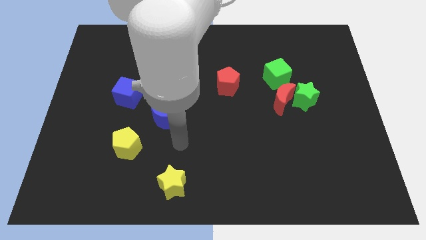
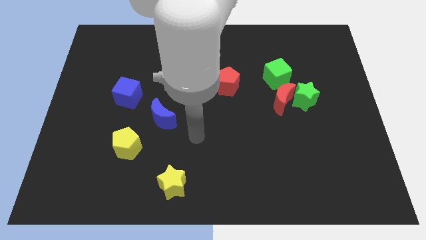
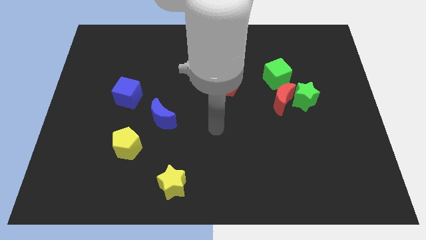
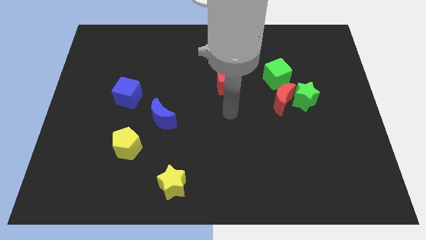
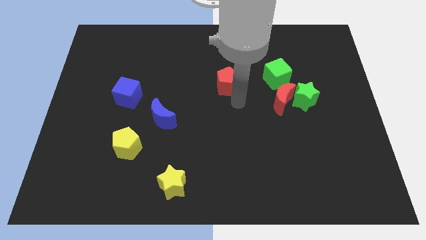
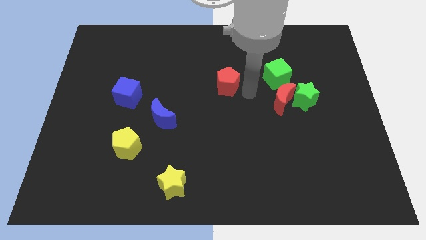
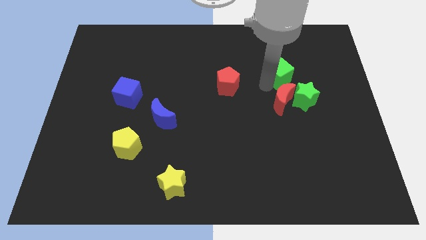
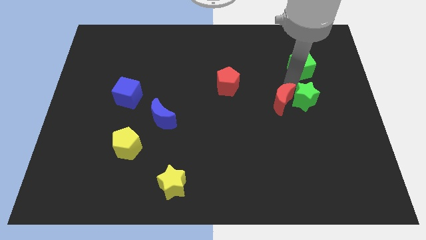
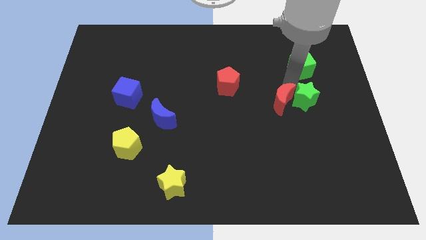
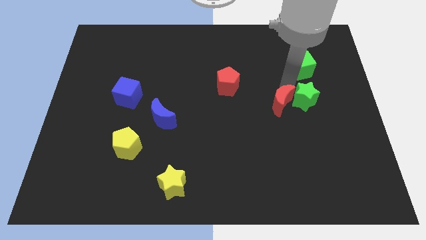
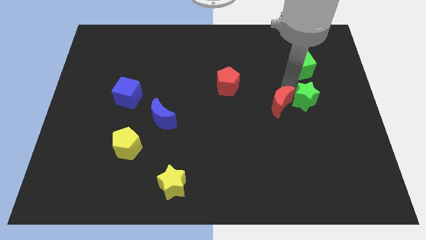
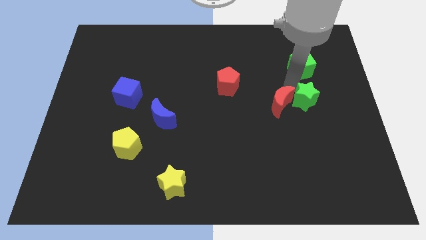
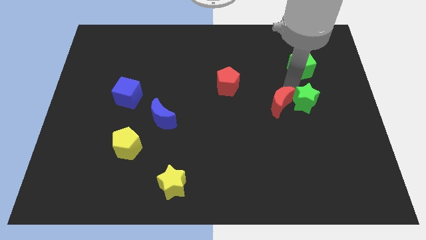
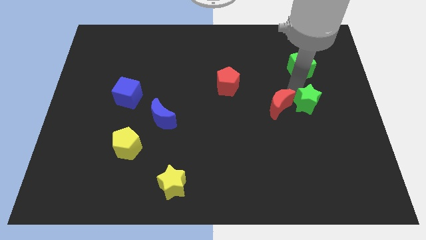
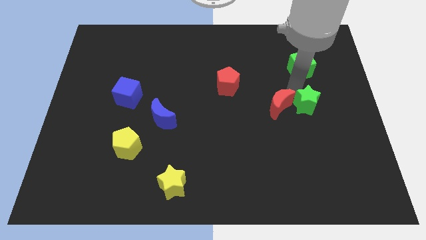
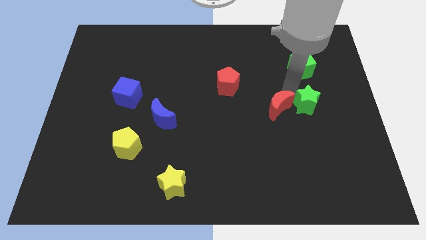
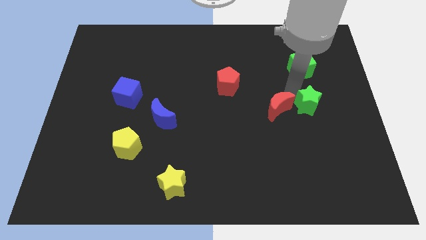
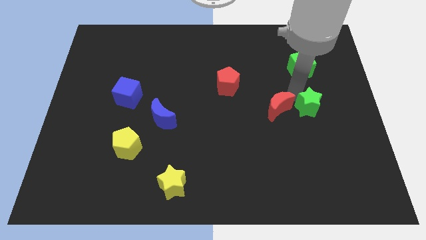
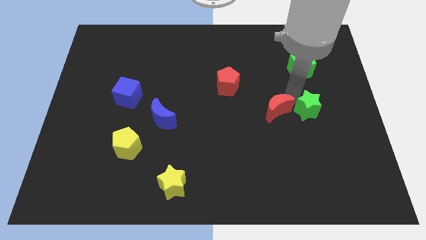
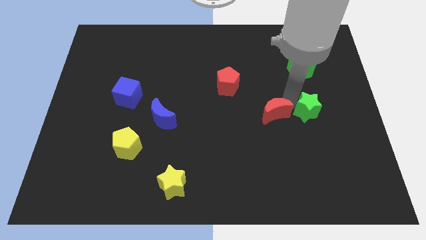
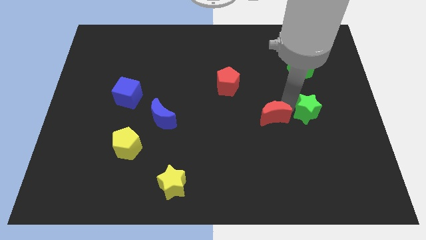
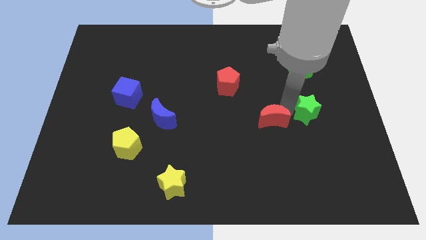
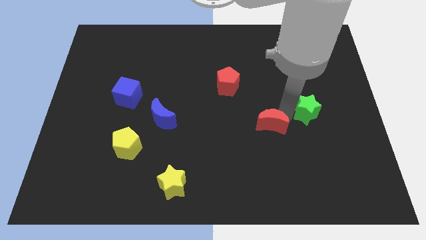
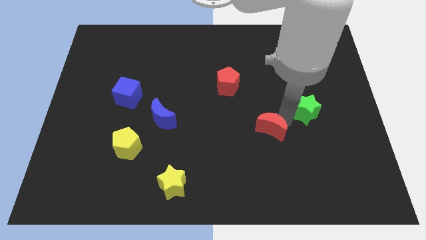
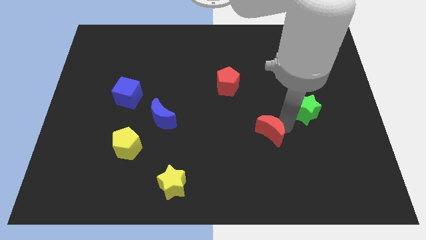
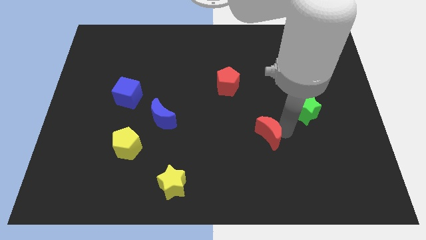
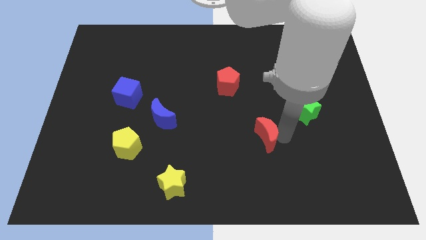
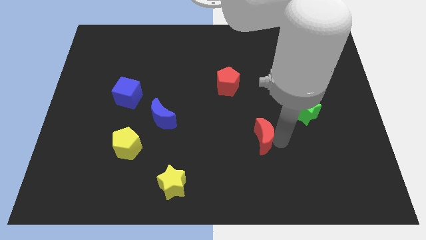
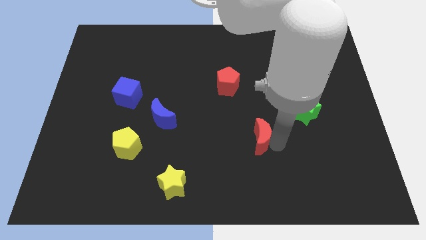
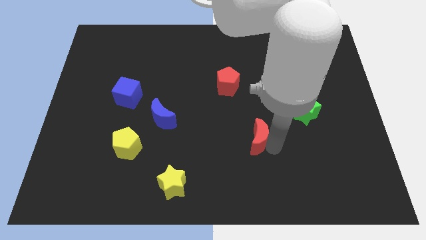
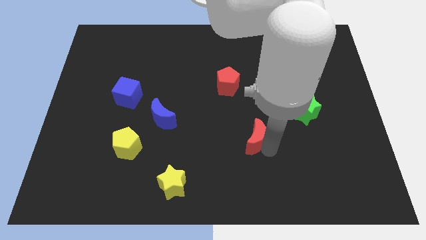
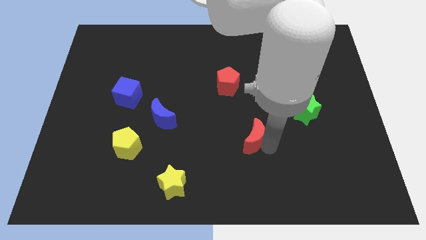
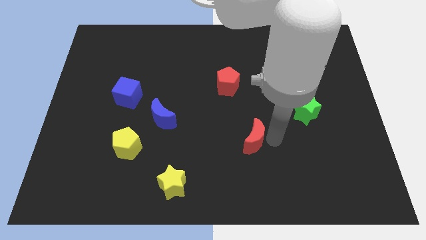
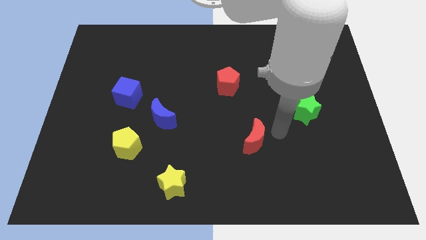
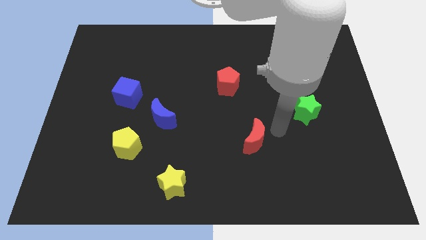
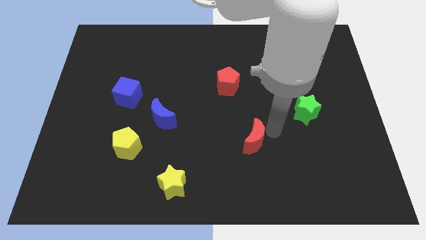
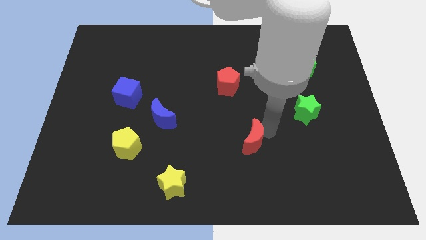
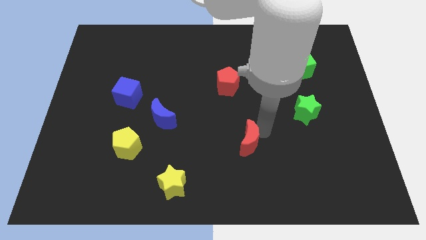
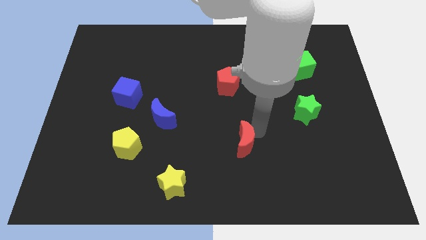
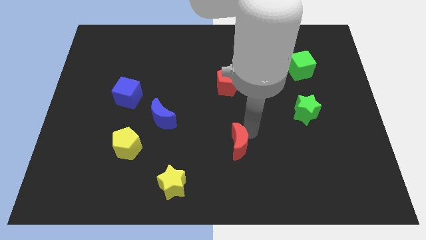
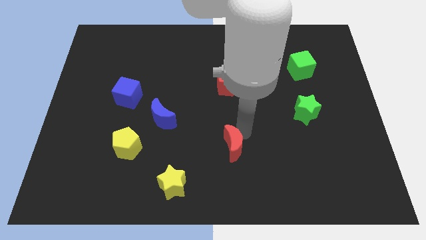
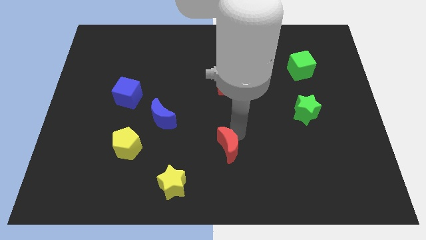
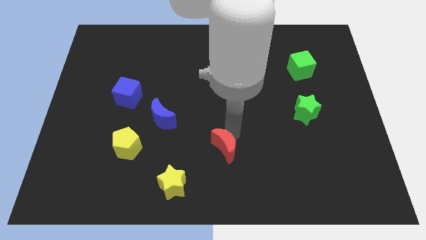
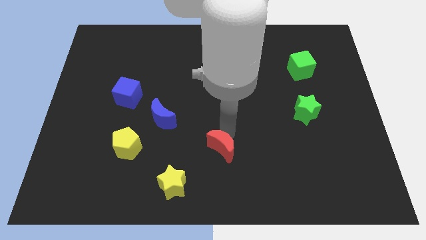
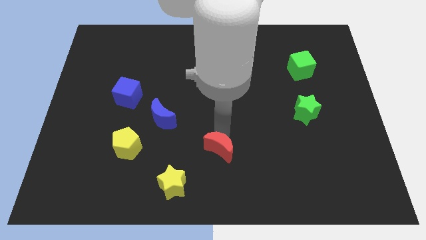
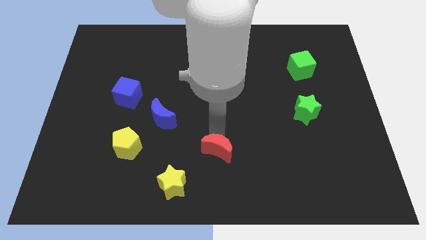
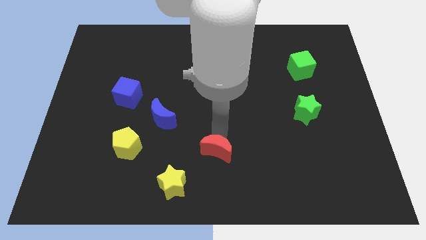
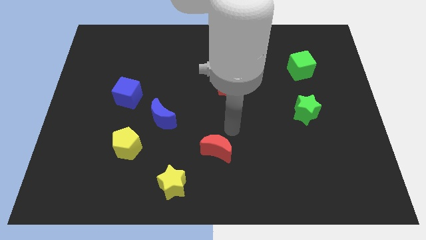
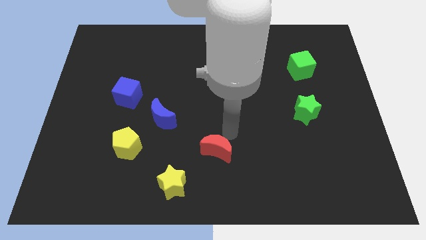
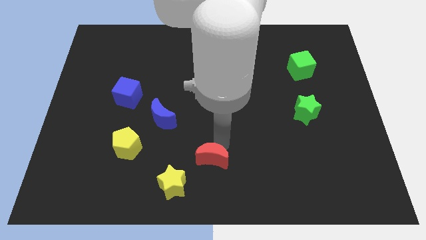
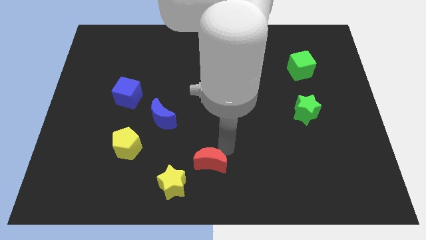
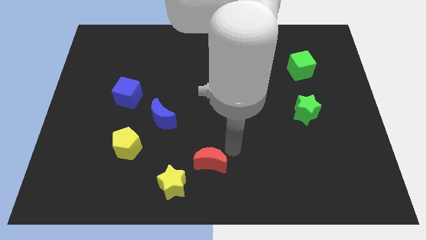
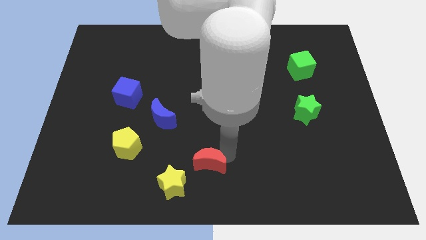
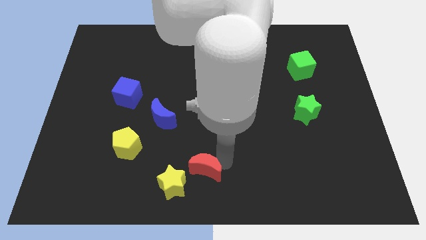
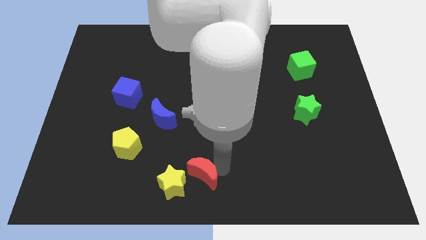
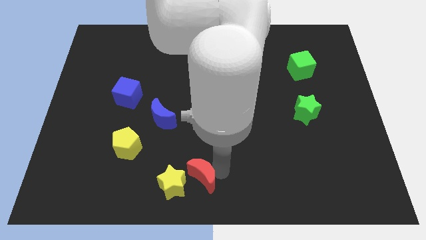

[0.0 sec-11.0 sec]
put the red moon next to the yellow star

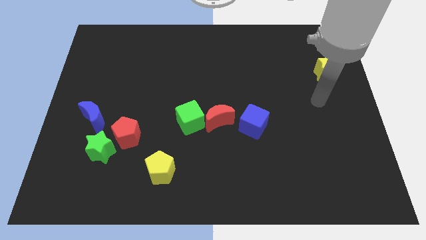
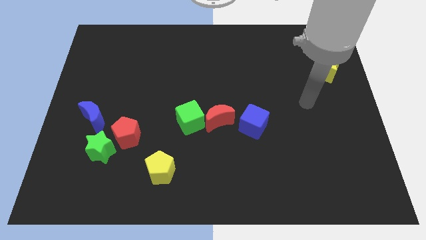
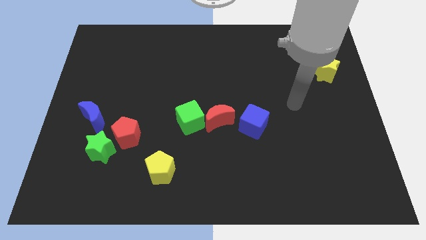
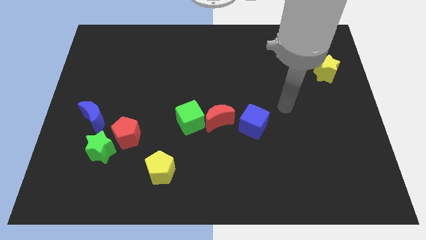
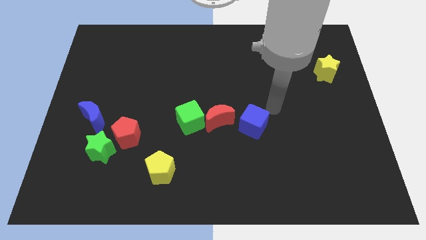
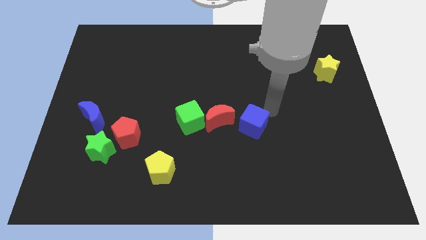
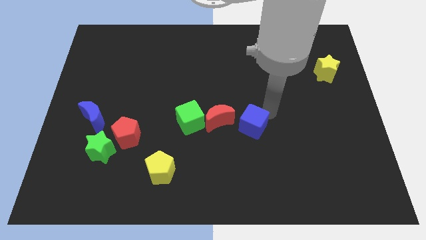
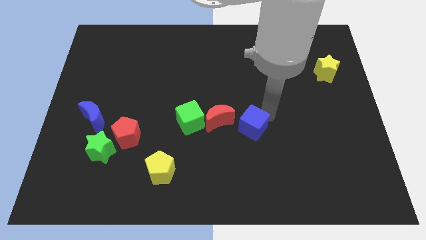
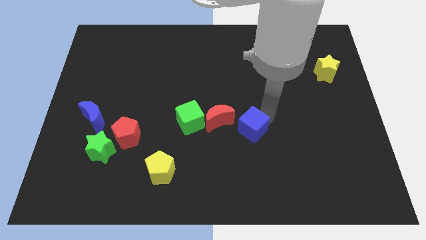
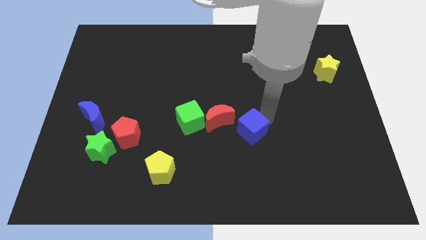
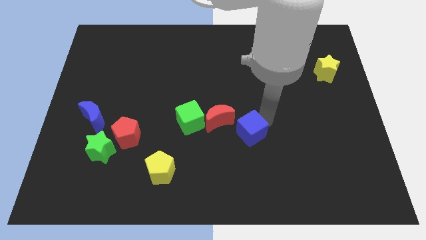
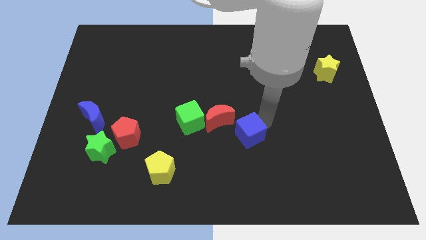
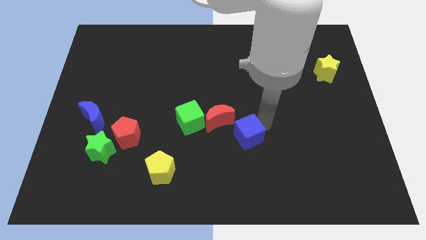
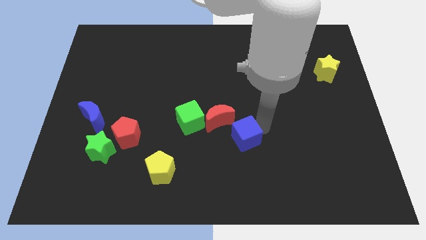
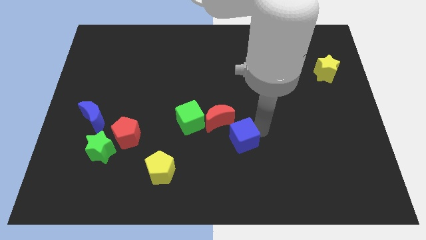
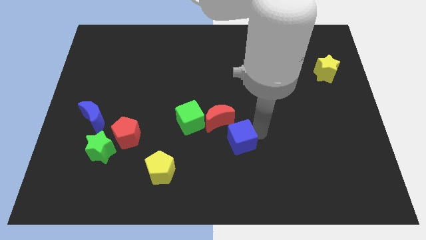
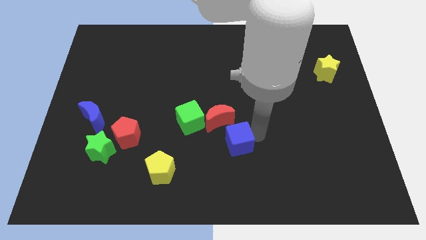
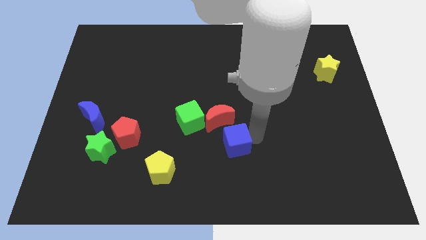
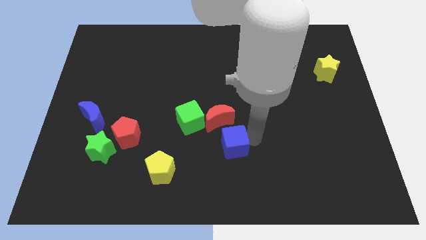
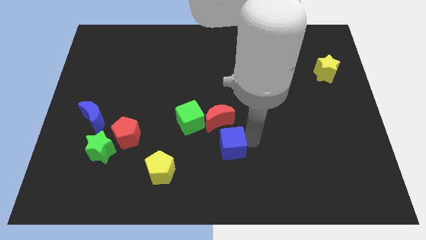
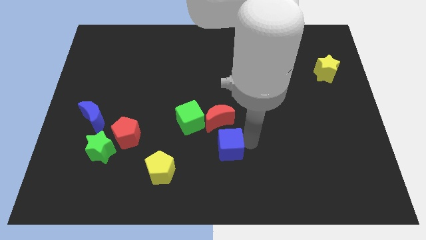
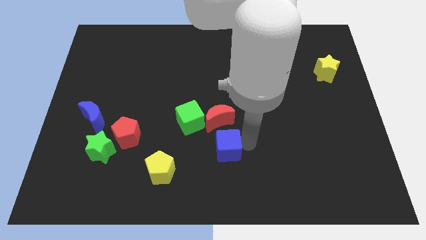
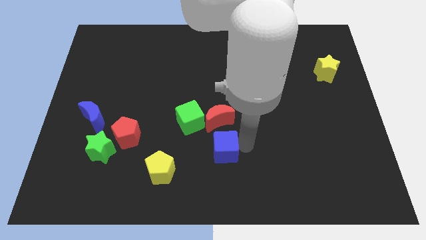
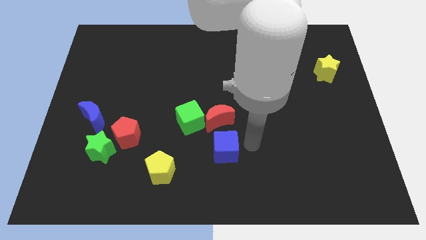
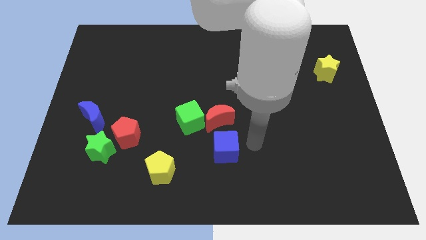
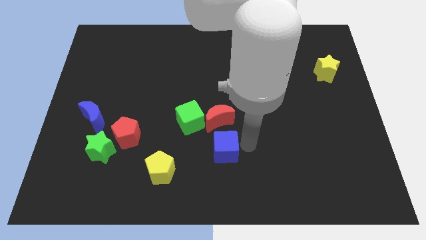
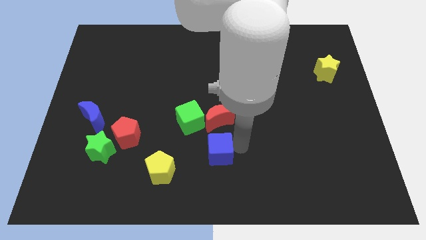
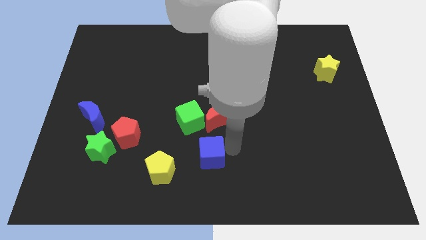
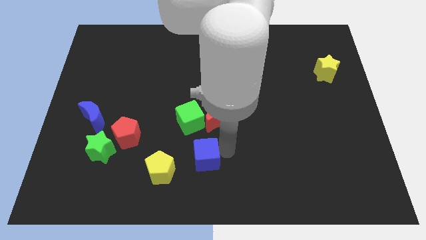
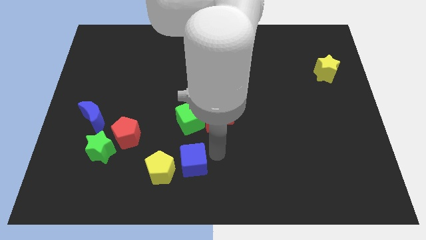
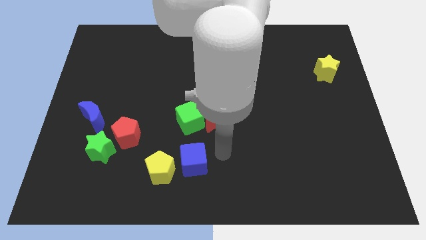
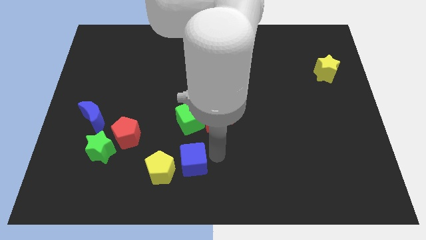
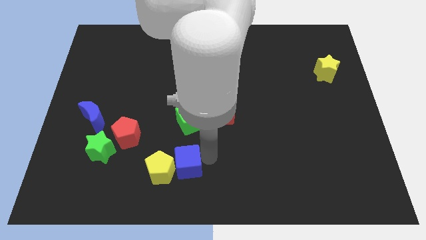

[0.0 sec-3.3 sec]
push the blue cube towards the yellow pentagon
